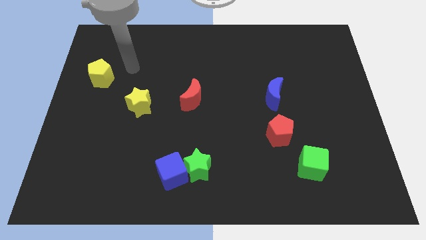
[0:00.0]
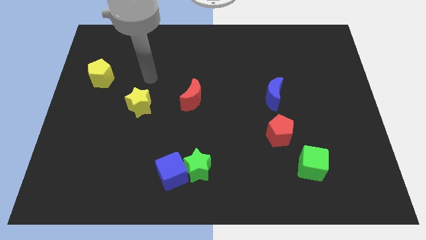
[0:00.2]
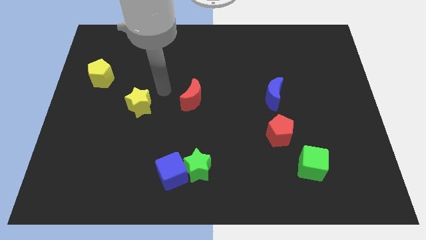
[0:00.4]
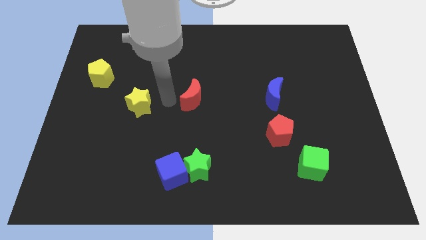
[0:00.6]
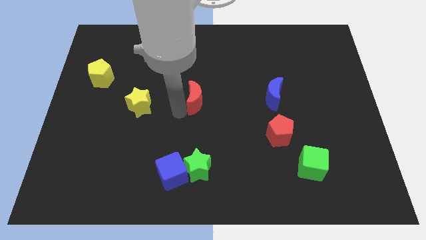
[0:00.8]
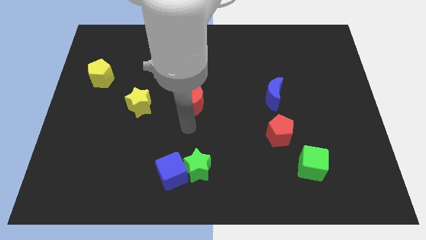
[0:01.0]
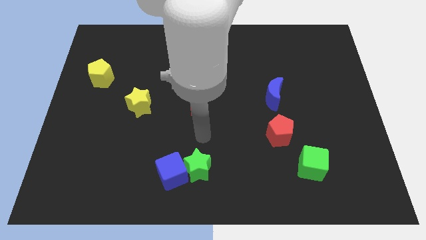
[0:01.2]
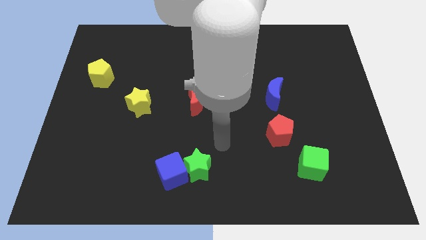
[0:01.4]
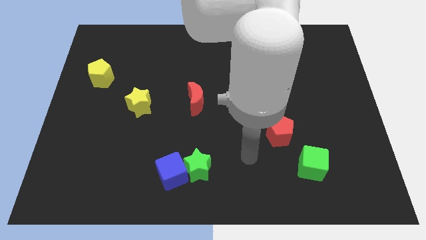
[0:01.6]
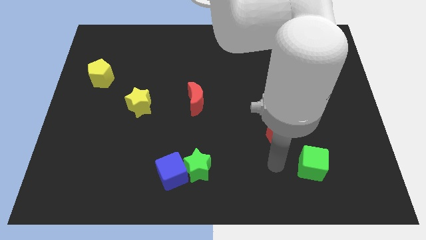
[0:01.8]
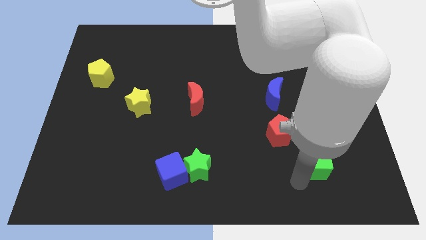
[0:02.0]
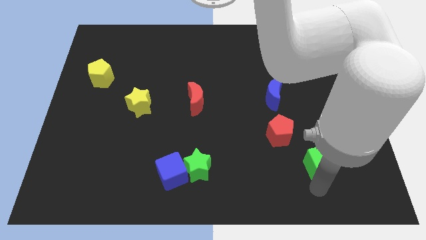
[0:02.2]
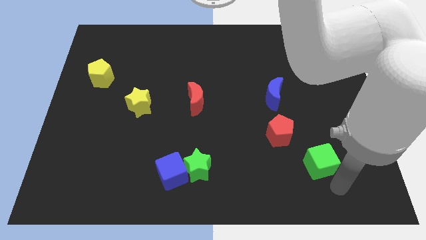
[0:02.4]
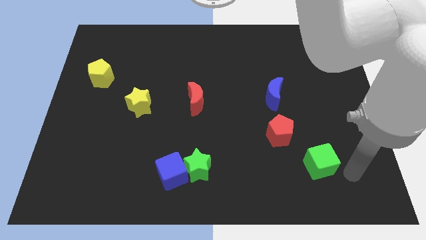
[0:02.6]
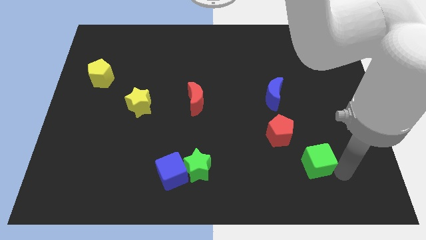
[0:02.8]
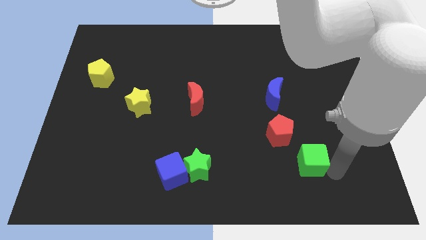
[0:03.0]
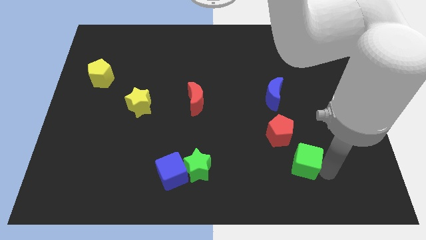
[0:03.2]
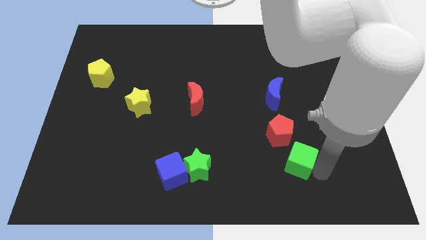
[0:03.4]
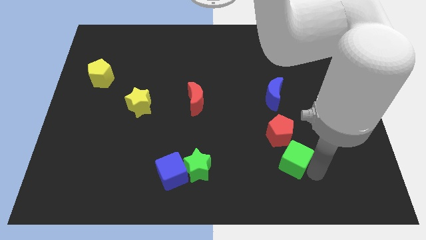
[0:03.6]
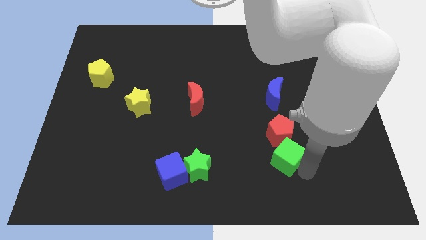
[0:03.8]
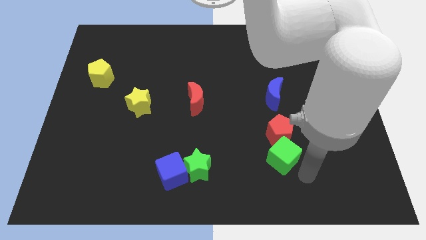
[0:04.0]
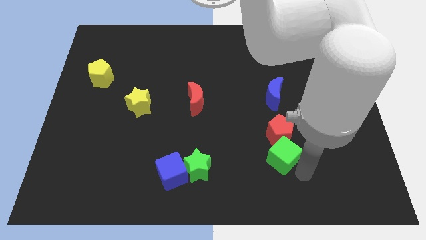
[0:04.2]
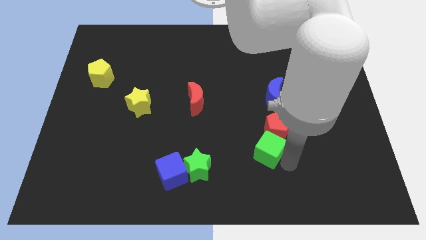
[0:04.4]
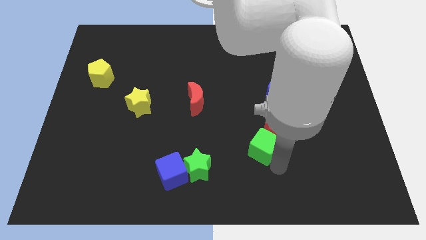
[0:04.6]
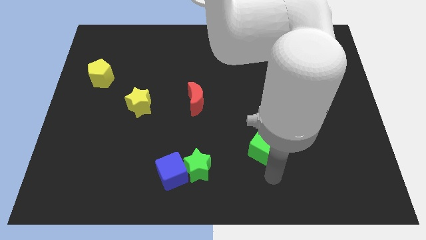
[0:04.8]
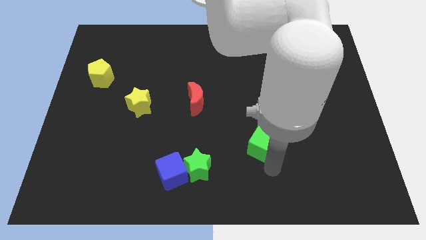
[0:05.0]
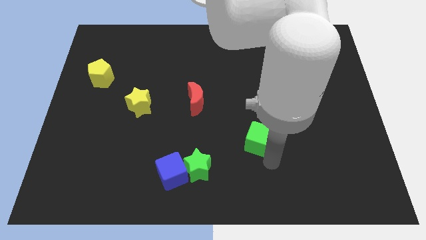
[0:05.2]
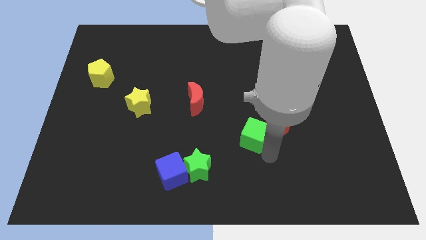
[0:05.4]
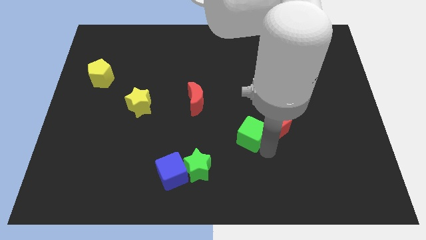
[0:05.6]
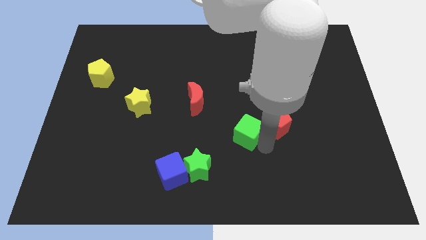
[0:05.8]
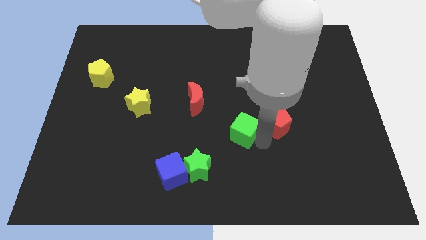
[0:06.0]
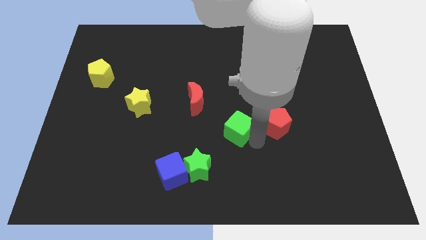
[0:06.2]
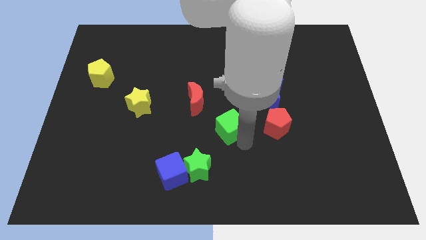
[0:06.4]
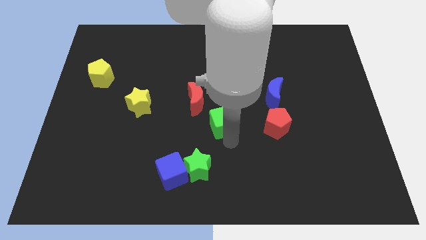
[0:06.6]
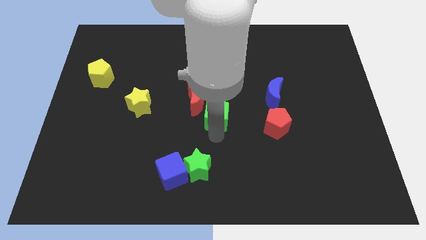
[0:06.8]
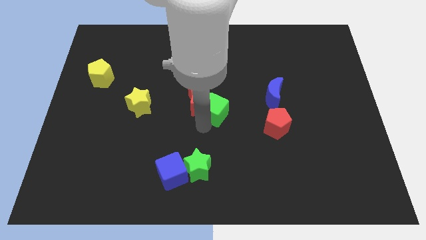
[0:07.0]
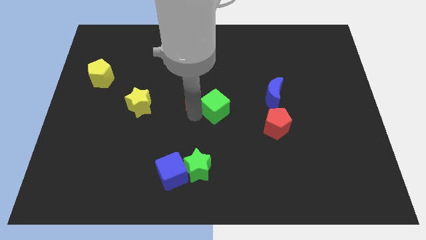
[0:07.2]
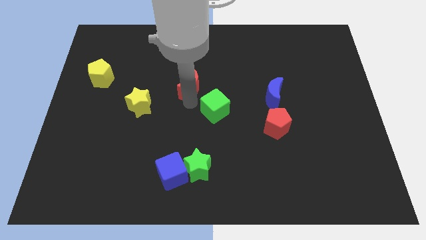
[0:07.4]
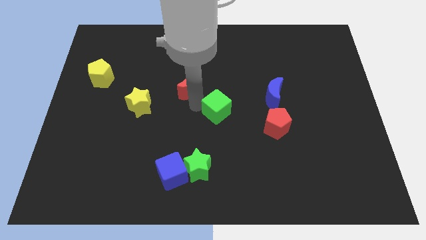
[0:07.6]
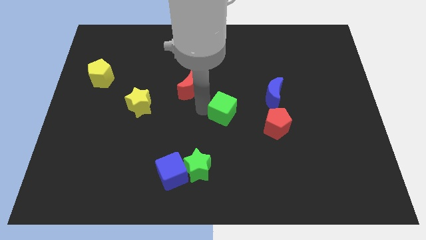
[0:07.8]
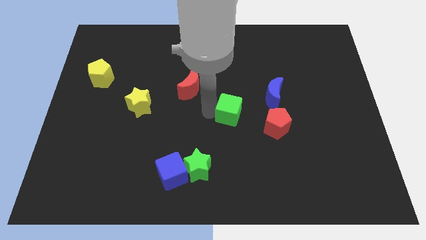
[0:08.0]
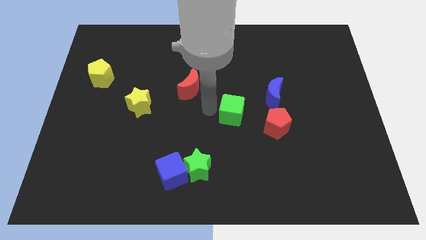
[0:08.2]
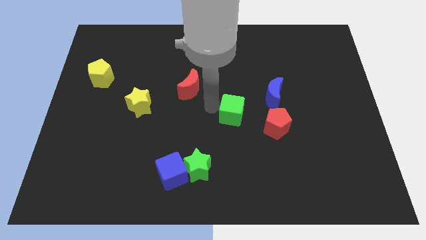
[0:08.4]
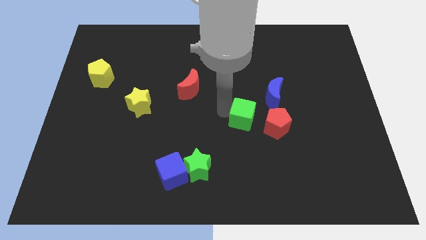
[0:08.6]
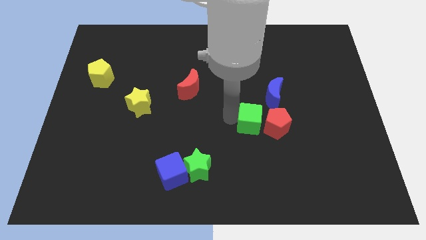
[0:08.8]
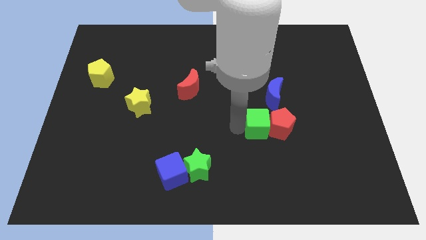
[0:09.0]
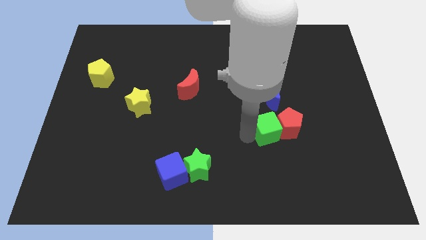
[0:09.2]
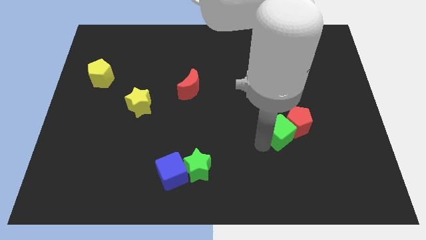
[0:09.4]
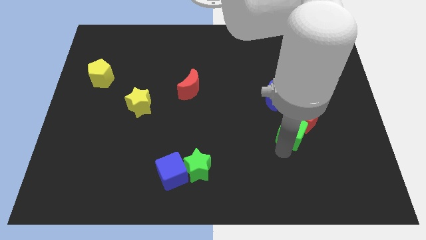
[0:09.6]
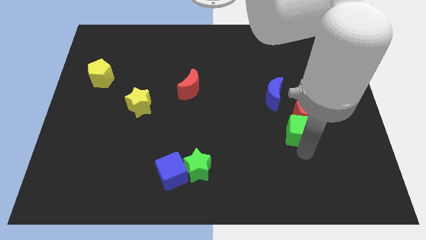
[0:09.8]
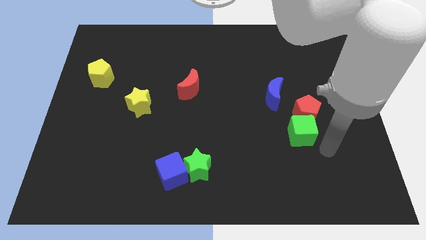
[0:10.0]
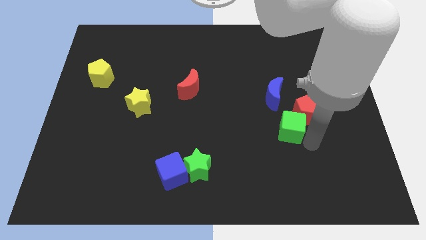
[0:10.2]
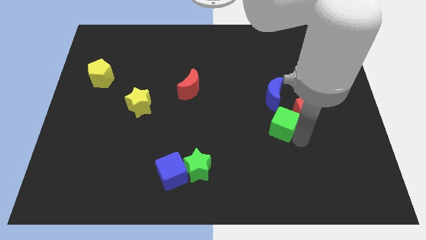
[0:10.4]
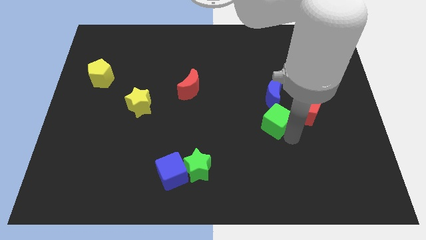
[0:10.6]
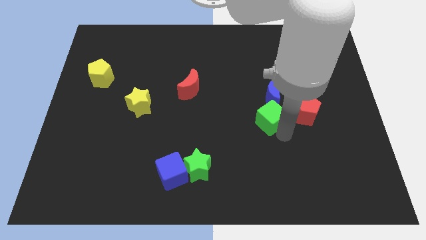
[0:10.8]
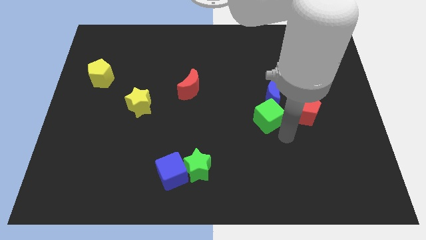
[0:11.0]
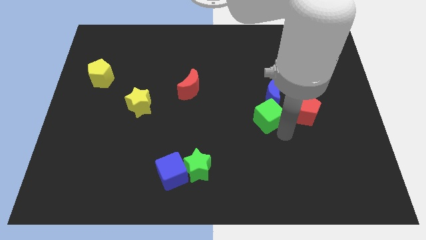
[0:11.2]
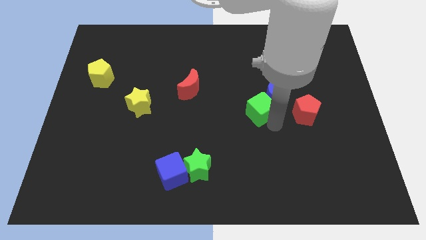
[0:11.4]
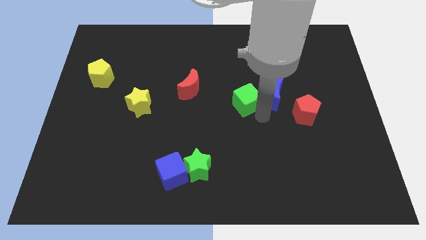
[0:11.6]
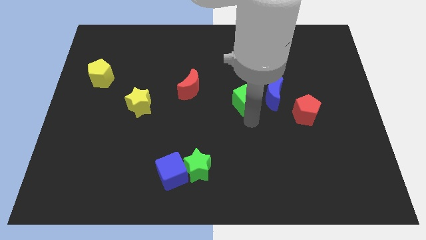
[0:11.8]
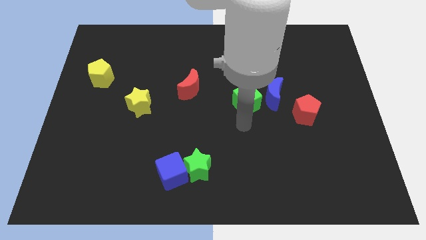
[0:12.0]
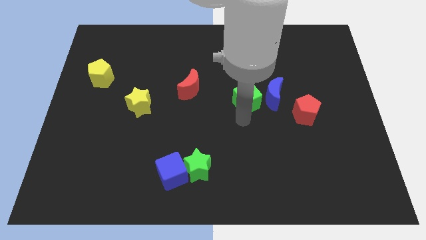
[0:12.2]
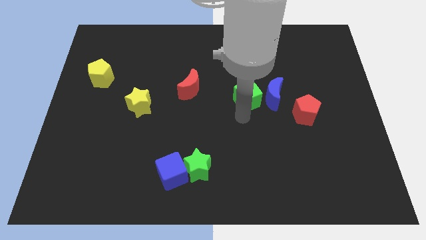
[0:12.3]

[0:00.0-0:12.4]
move the green cube to the top left side of the blue moon
